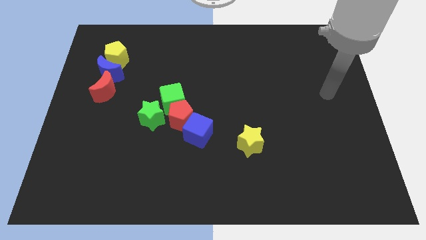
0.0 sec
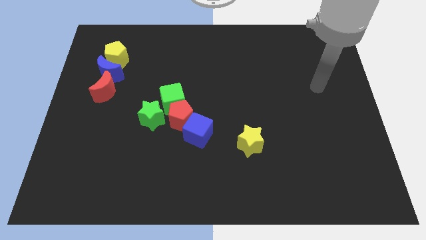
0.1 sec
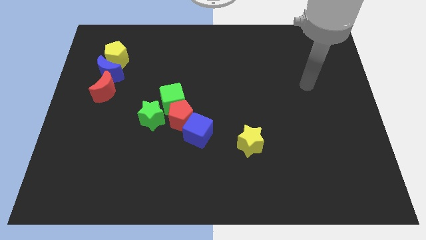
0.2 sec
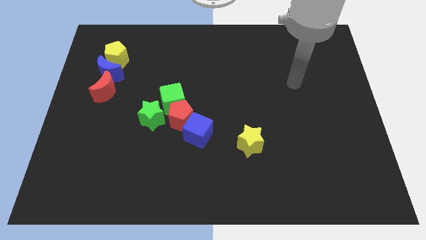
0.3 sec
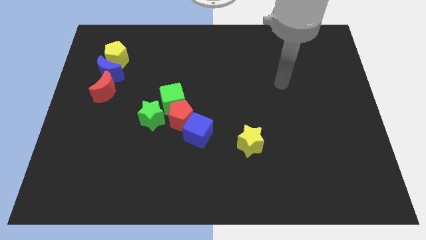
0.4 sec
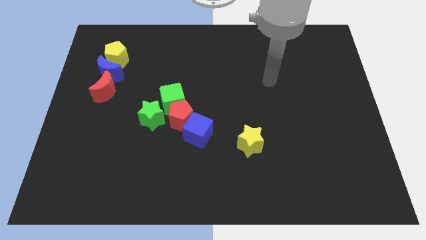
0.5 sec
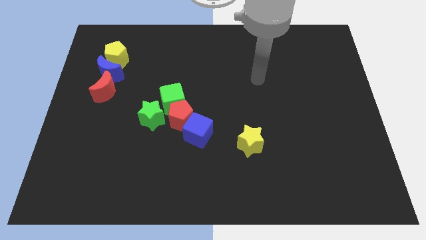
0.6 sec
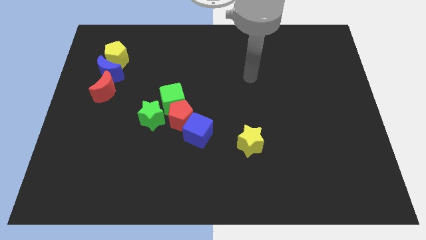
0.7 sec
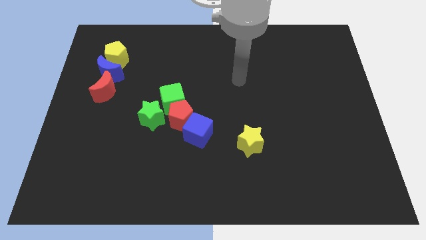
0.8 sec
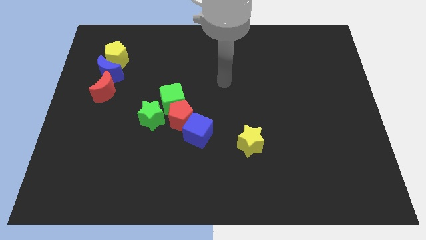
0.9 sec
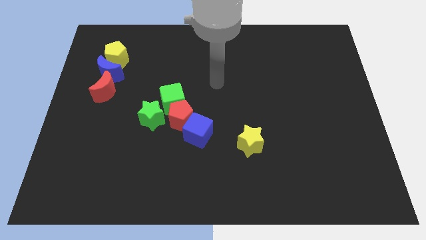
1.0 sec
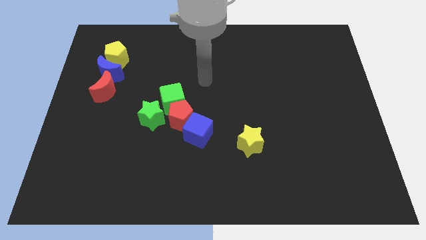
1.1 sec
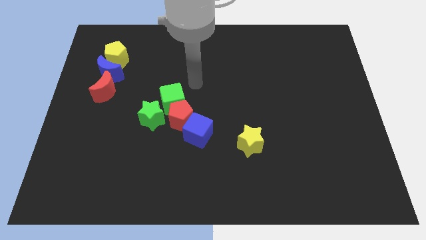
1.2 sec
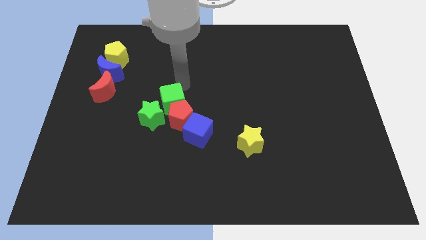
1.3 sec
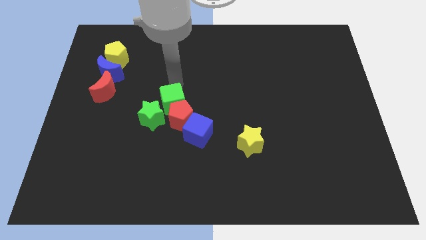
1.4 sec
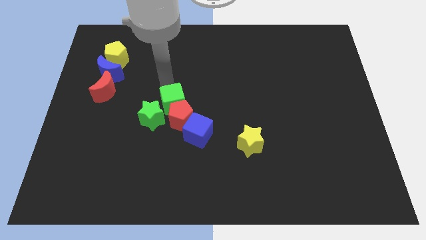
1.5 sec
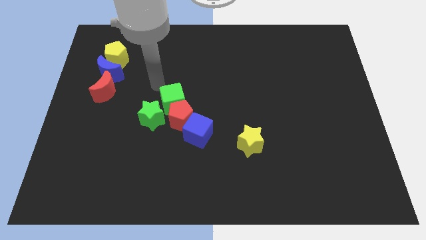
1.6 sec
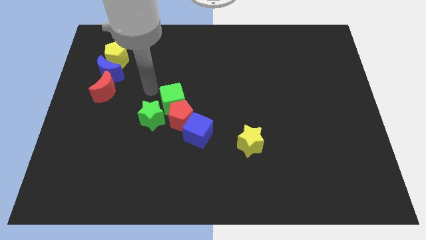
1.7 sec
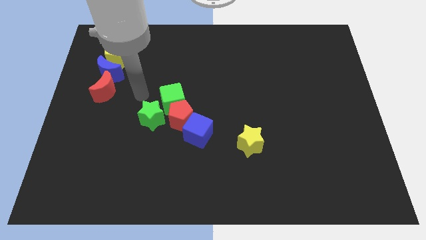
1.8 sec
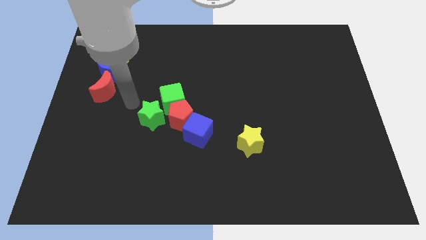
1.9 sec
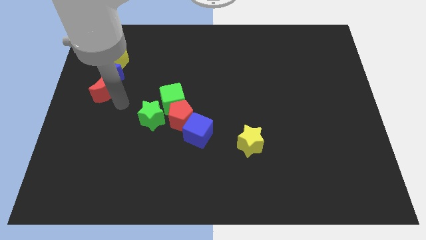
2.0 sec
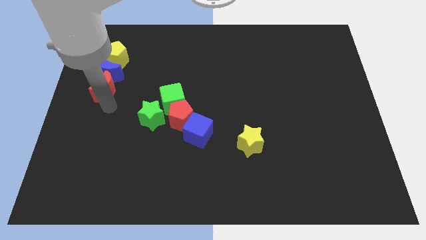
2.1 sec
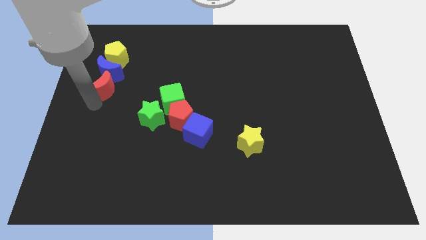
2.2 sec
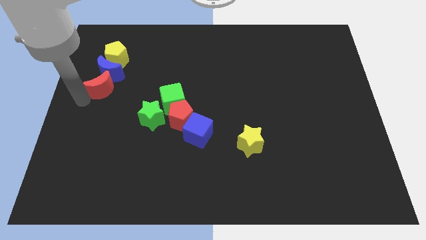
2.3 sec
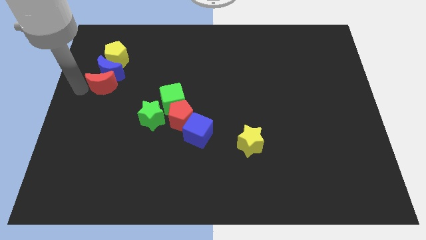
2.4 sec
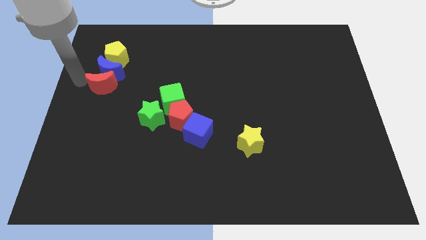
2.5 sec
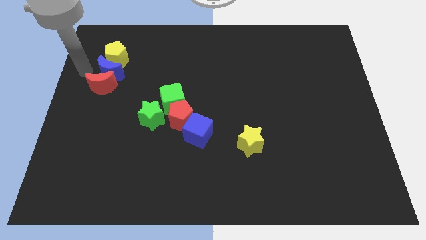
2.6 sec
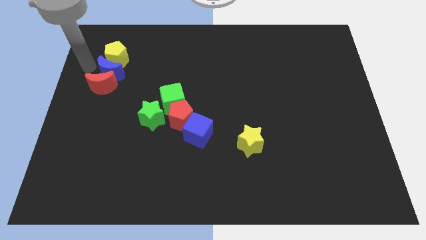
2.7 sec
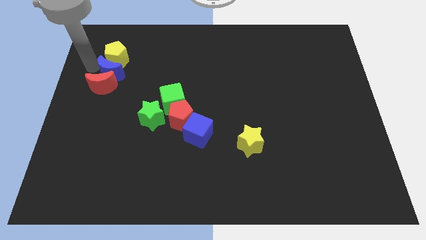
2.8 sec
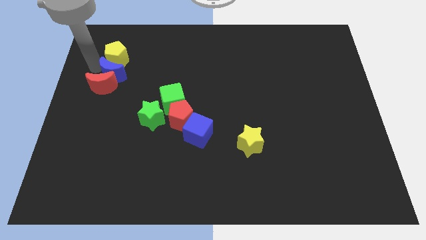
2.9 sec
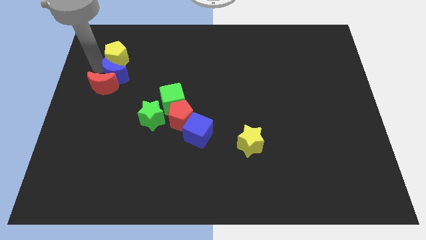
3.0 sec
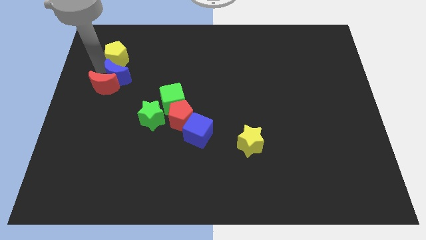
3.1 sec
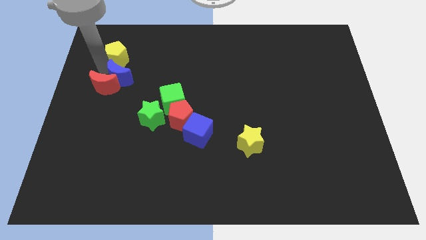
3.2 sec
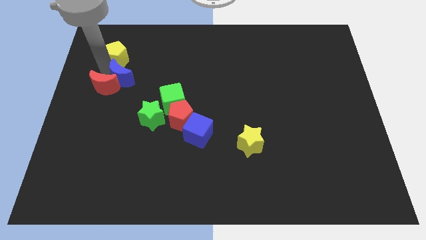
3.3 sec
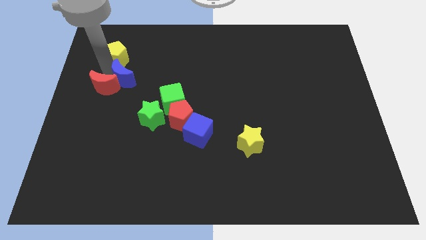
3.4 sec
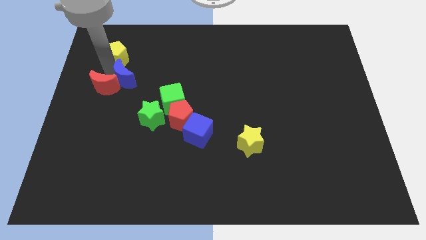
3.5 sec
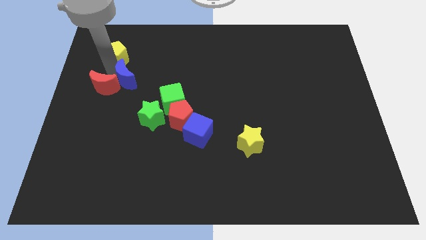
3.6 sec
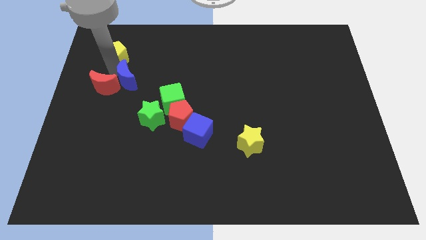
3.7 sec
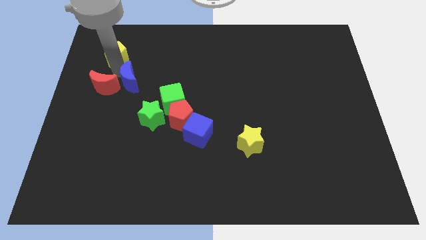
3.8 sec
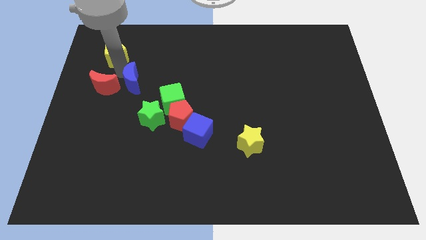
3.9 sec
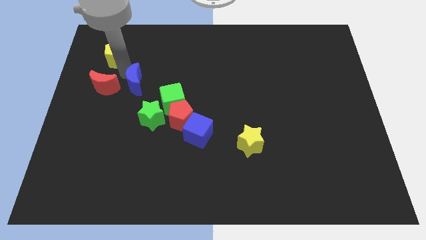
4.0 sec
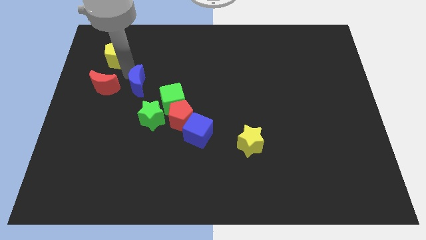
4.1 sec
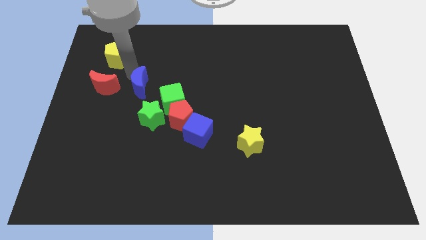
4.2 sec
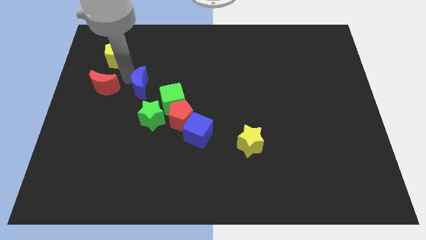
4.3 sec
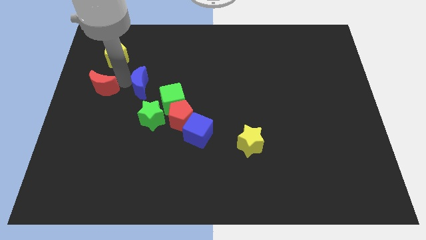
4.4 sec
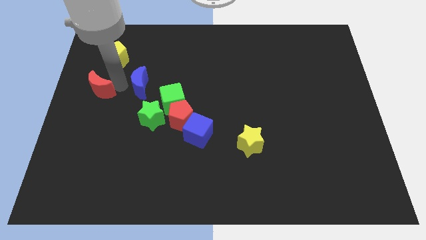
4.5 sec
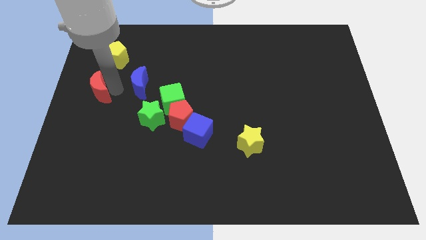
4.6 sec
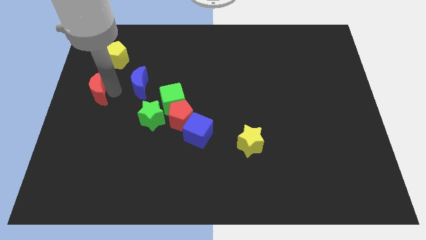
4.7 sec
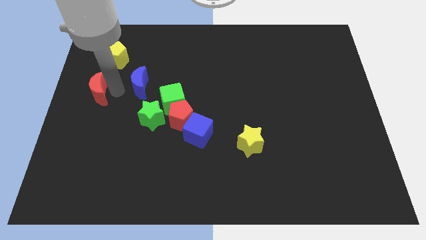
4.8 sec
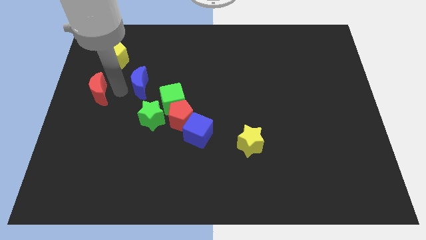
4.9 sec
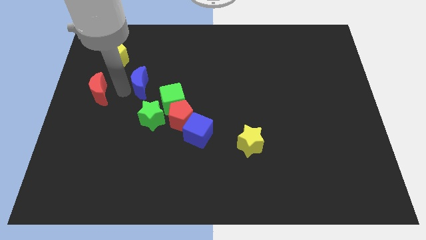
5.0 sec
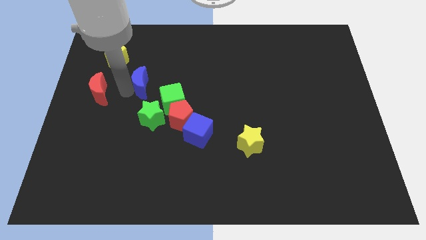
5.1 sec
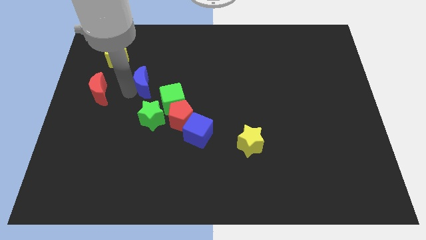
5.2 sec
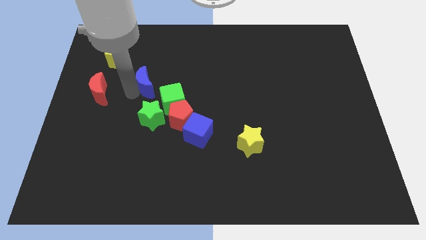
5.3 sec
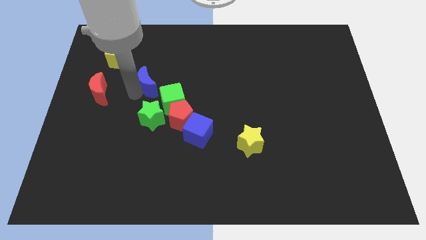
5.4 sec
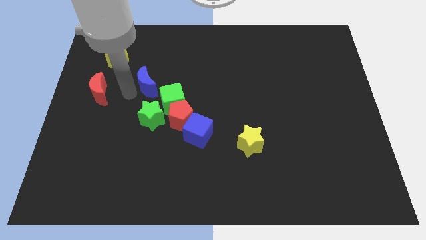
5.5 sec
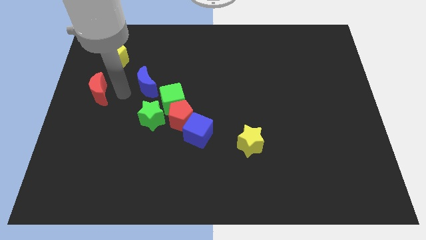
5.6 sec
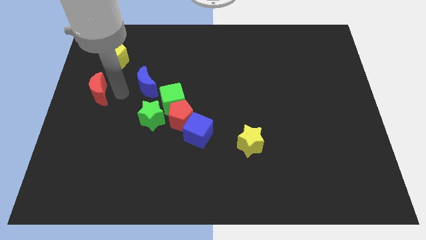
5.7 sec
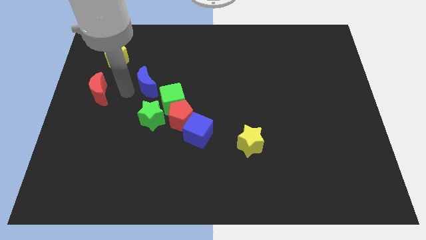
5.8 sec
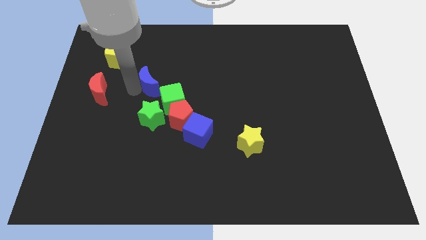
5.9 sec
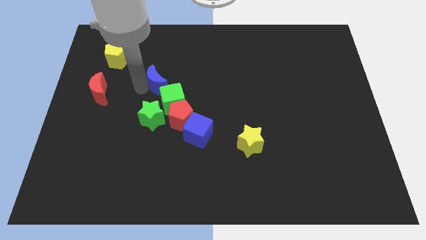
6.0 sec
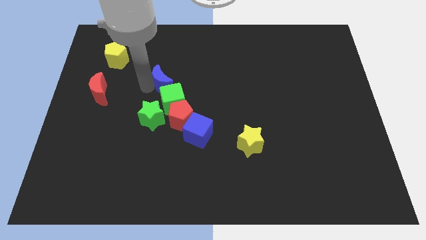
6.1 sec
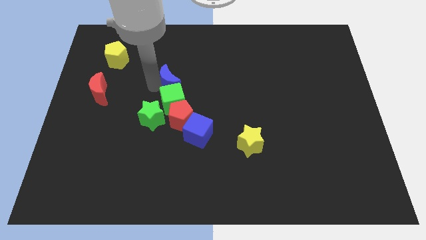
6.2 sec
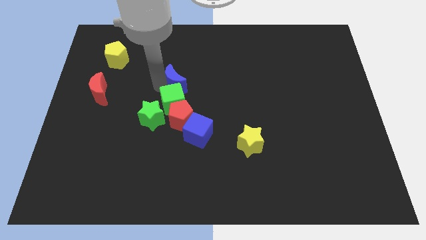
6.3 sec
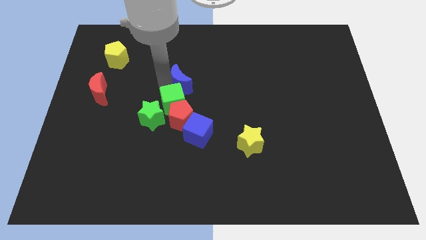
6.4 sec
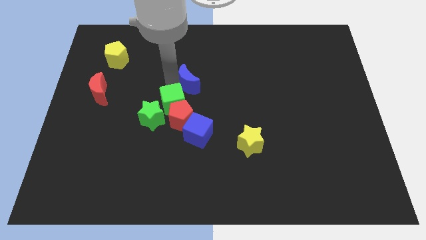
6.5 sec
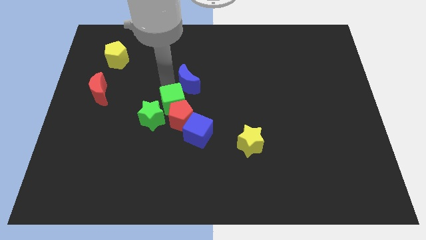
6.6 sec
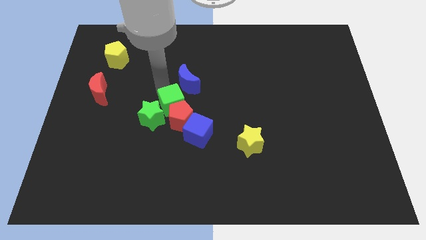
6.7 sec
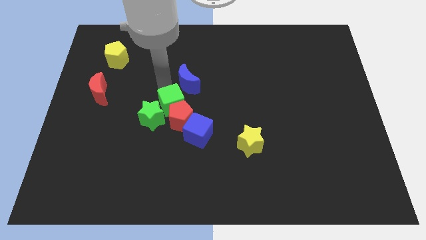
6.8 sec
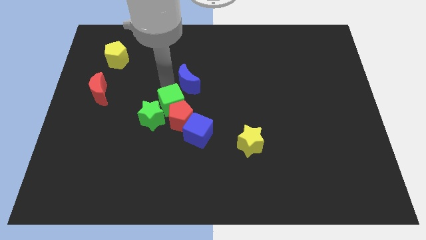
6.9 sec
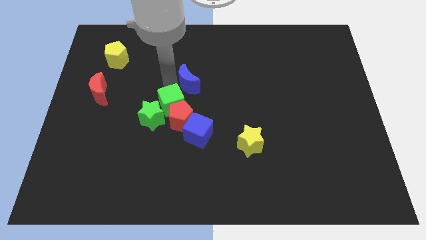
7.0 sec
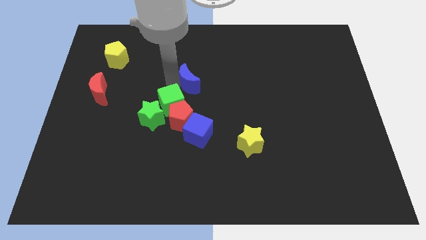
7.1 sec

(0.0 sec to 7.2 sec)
move the blue moon right
